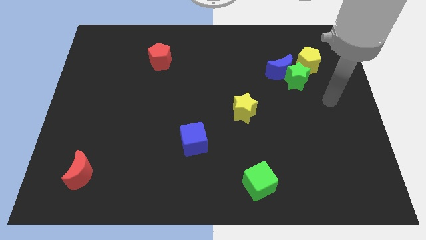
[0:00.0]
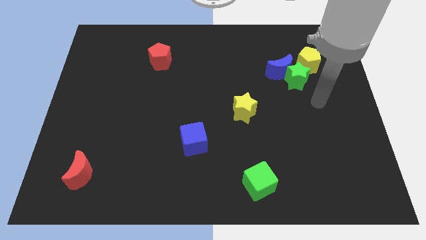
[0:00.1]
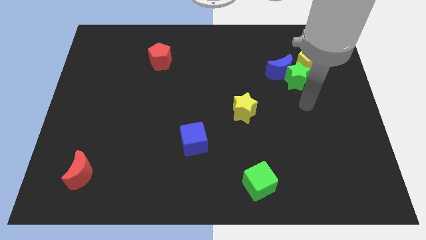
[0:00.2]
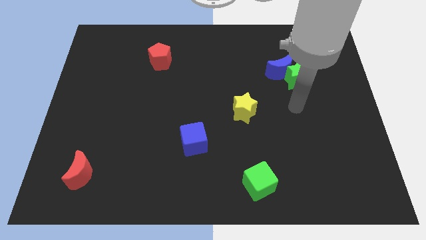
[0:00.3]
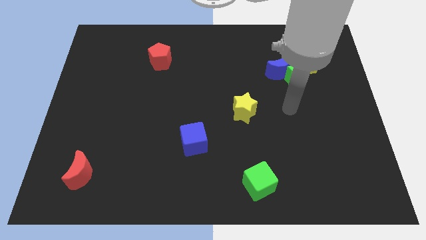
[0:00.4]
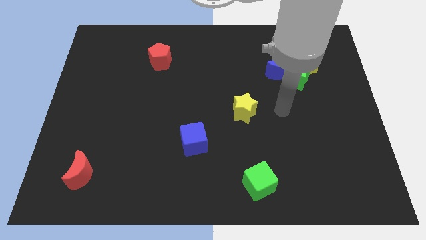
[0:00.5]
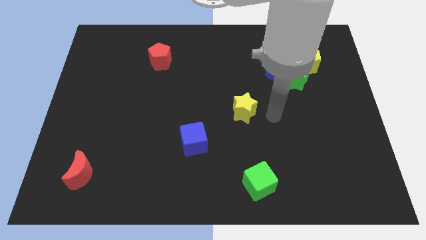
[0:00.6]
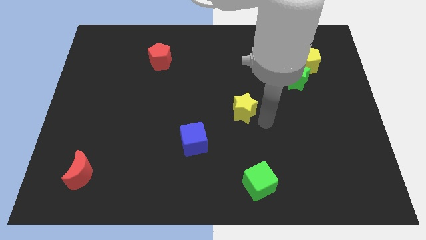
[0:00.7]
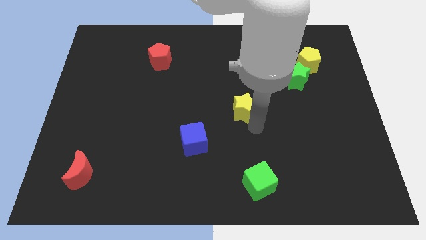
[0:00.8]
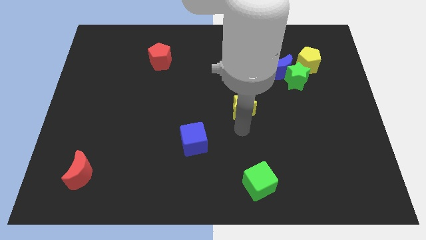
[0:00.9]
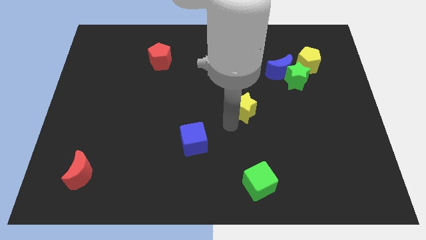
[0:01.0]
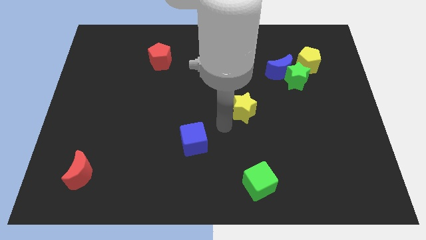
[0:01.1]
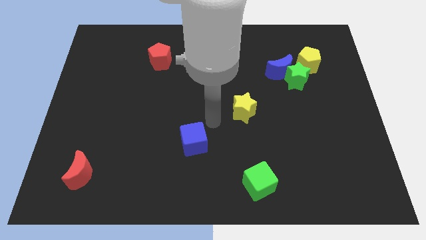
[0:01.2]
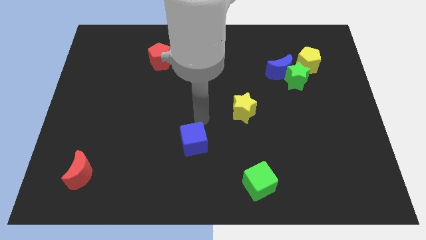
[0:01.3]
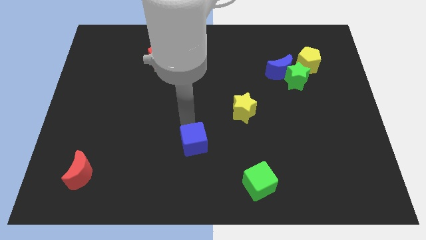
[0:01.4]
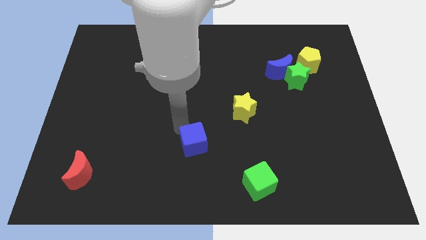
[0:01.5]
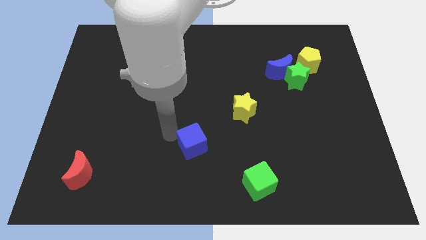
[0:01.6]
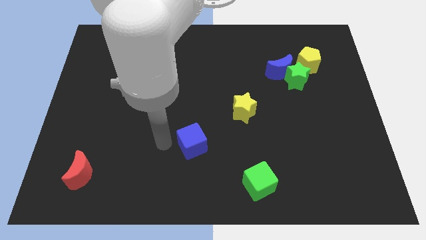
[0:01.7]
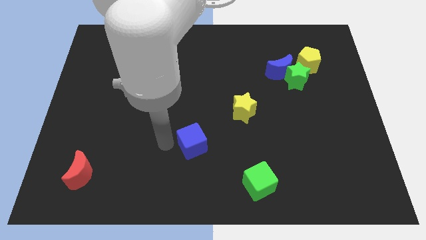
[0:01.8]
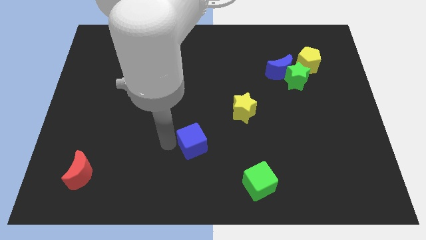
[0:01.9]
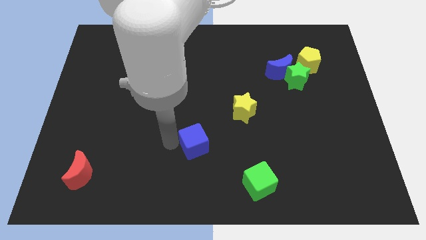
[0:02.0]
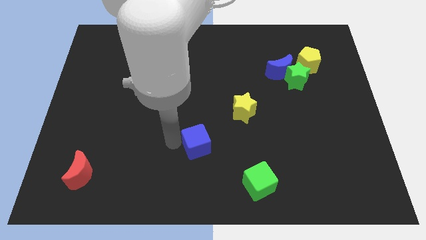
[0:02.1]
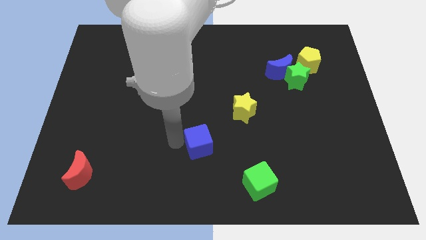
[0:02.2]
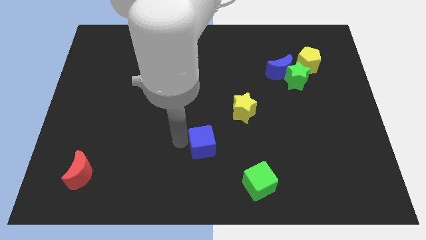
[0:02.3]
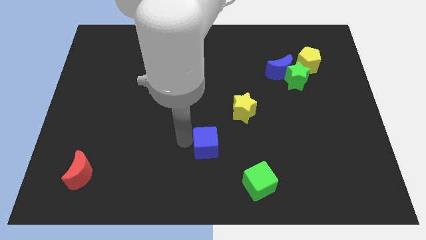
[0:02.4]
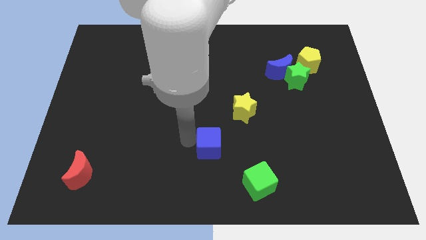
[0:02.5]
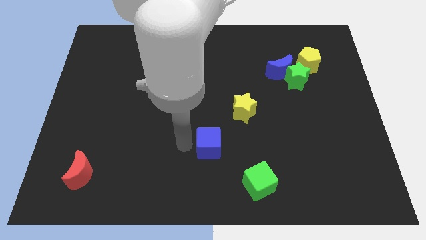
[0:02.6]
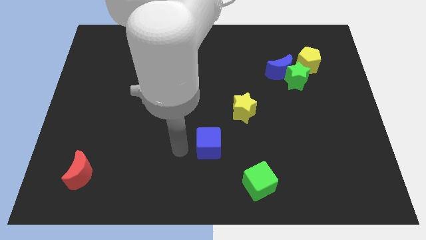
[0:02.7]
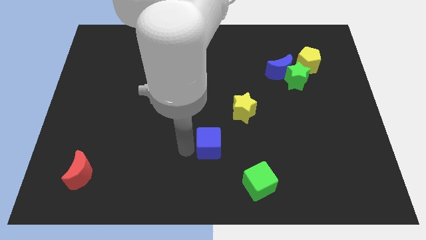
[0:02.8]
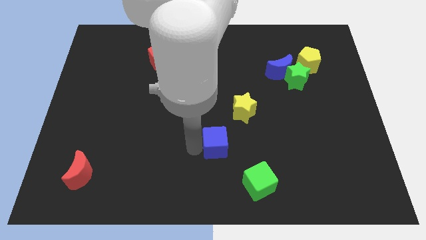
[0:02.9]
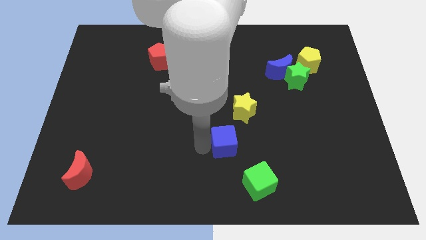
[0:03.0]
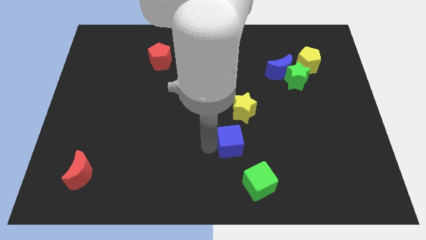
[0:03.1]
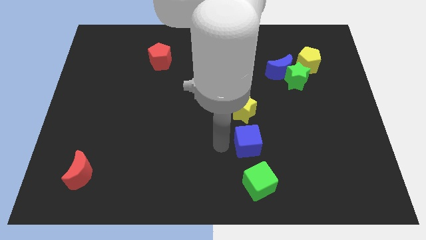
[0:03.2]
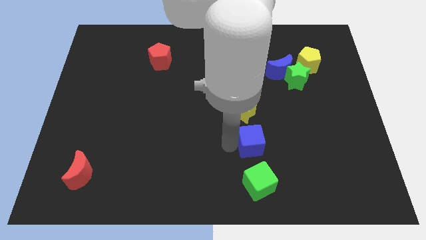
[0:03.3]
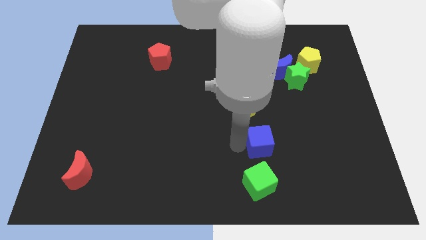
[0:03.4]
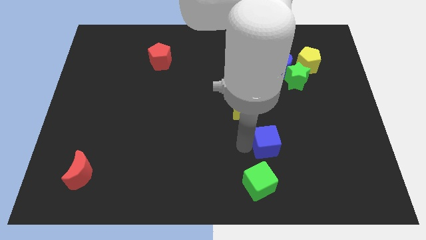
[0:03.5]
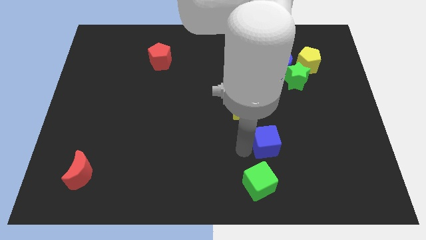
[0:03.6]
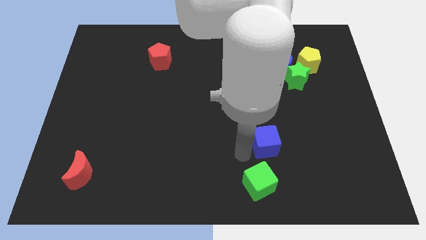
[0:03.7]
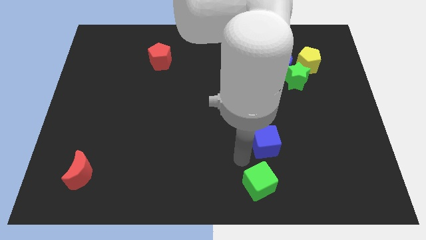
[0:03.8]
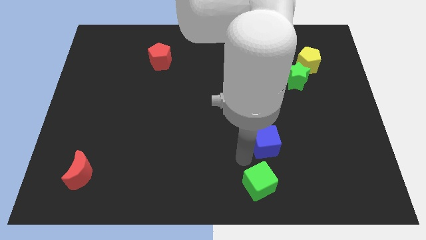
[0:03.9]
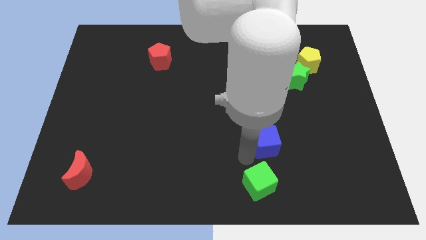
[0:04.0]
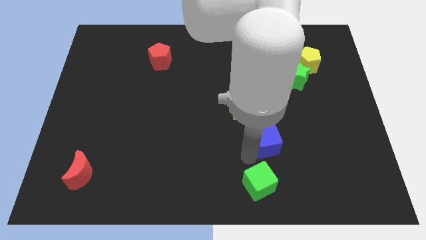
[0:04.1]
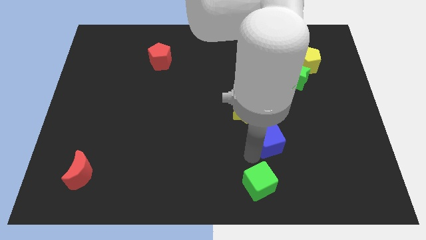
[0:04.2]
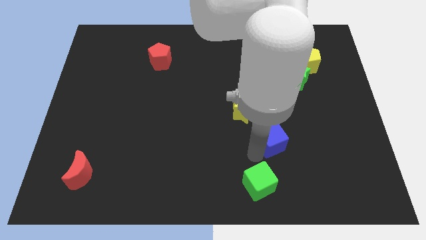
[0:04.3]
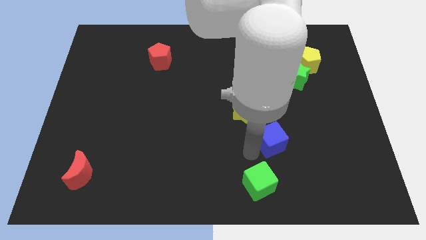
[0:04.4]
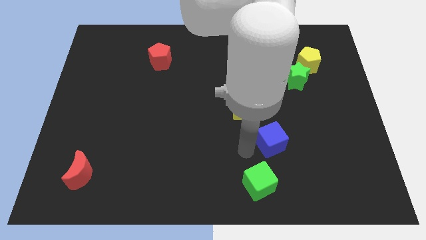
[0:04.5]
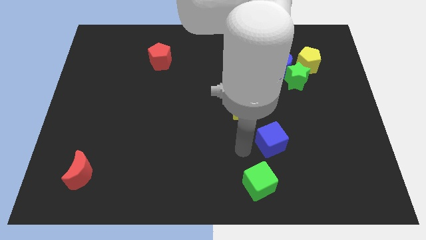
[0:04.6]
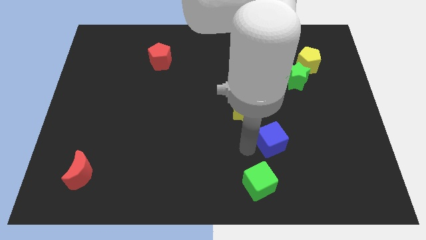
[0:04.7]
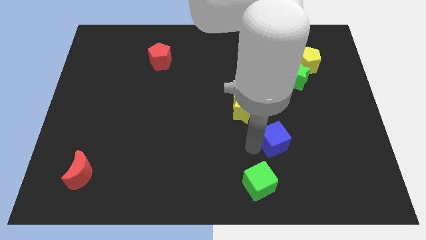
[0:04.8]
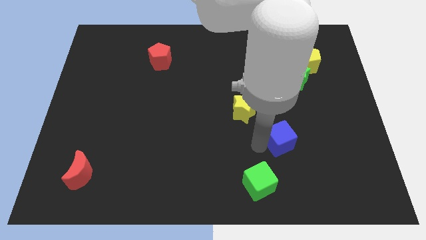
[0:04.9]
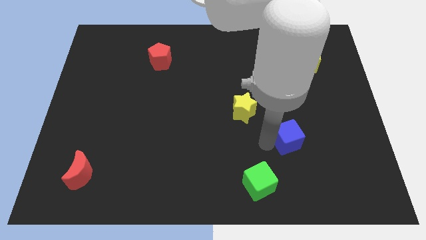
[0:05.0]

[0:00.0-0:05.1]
push the blue cube right

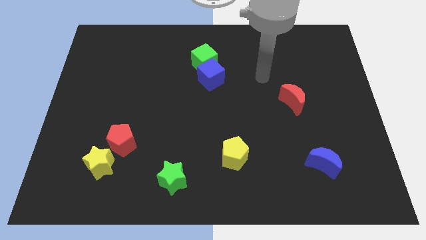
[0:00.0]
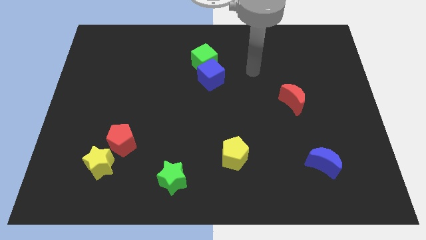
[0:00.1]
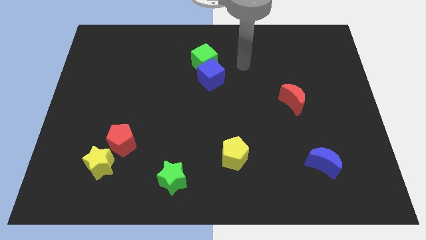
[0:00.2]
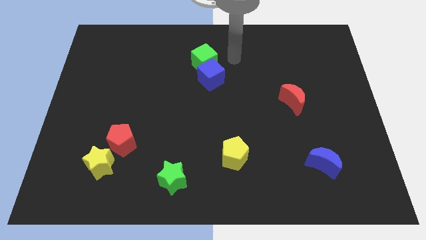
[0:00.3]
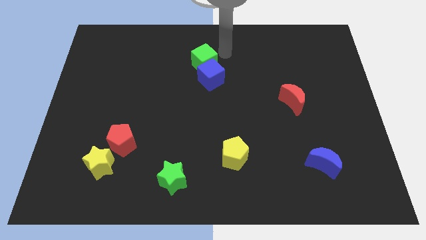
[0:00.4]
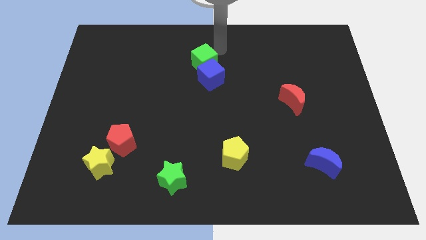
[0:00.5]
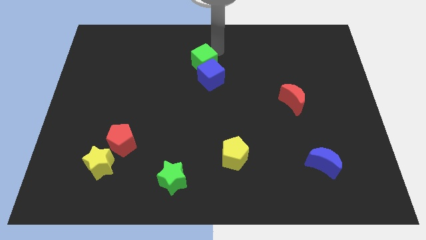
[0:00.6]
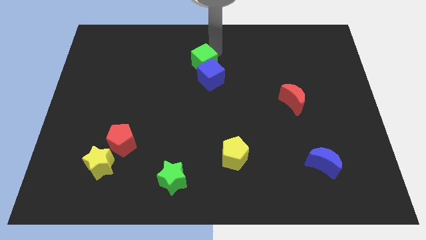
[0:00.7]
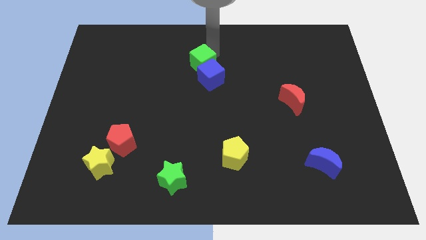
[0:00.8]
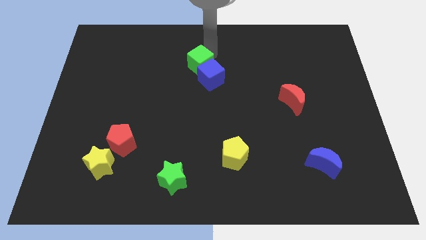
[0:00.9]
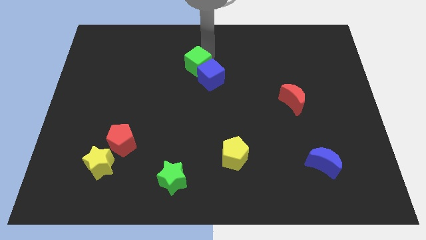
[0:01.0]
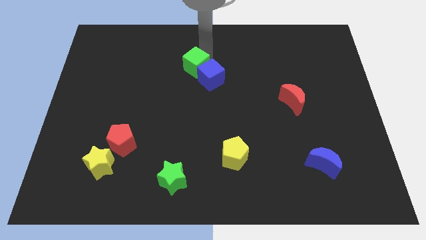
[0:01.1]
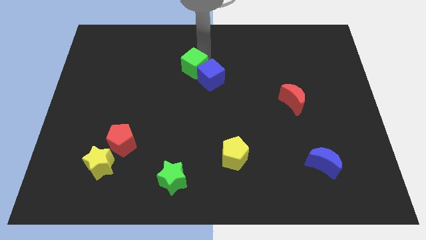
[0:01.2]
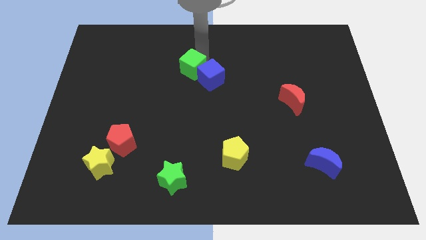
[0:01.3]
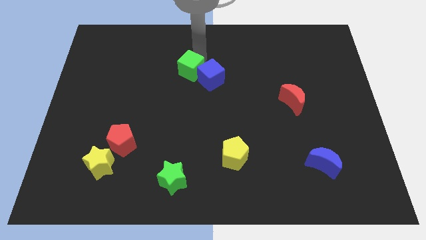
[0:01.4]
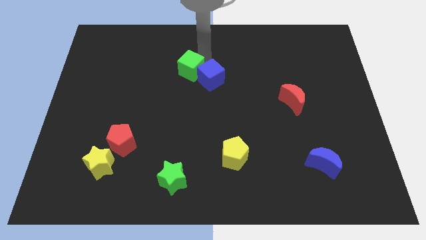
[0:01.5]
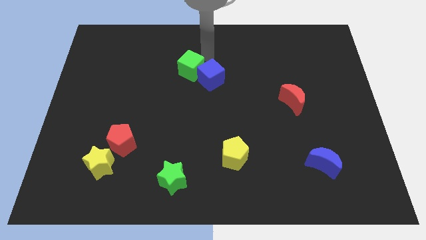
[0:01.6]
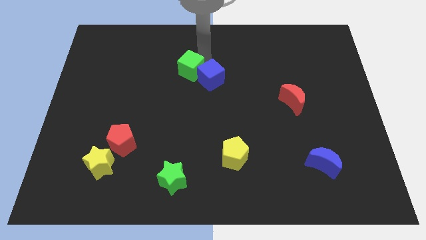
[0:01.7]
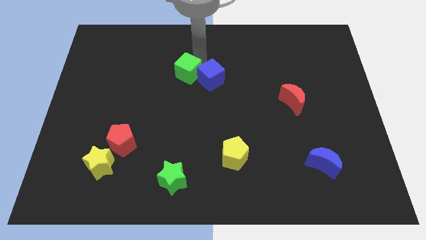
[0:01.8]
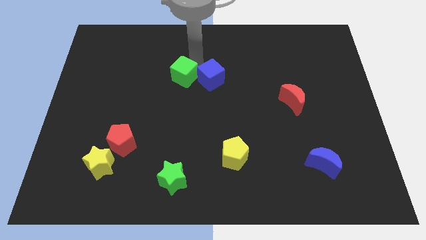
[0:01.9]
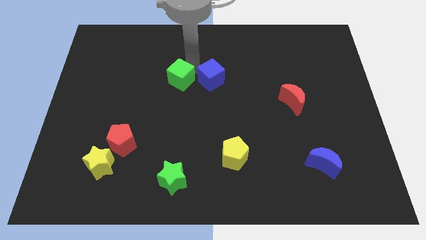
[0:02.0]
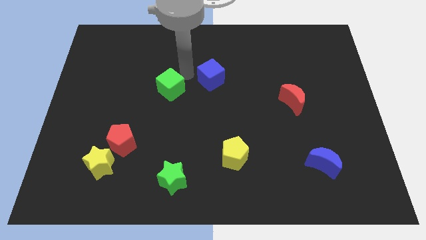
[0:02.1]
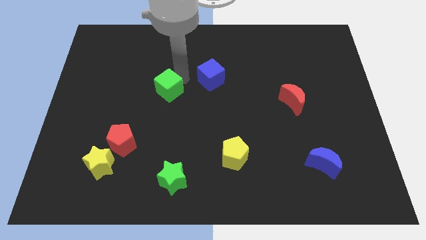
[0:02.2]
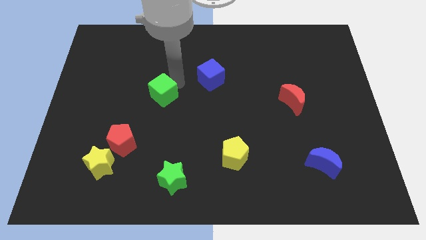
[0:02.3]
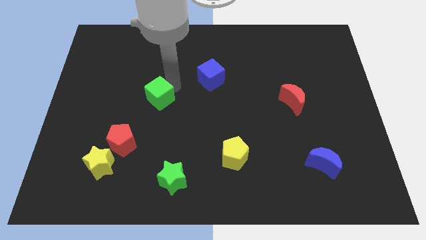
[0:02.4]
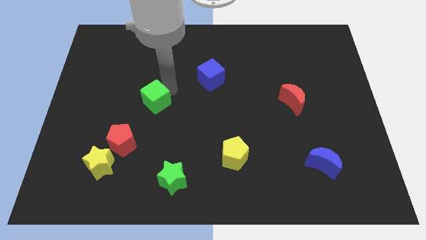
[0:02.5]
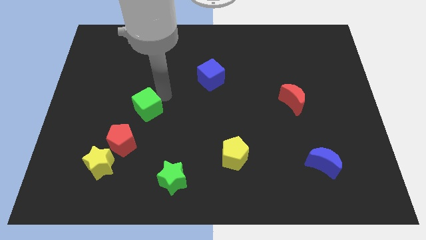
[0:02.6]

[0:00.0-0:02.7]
slide the green cube diagonally down and left
